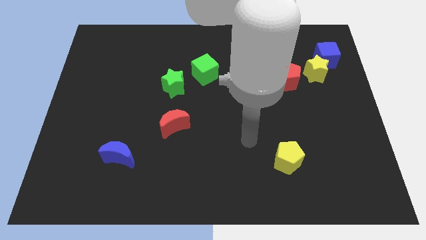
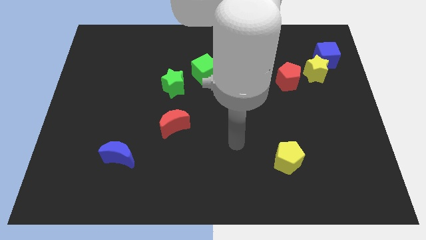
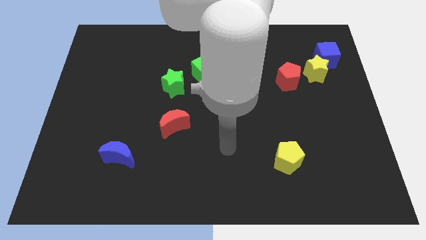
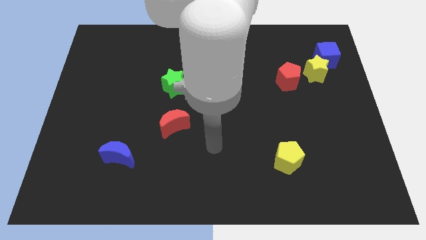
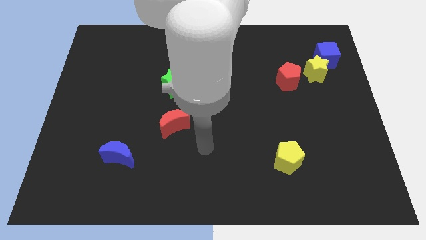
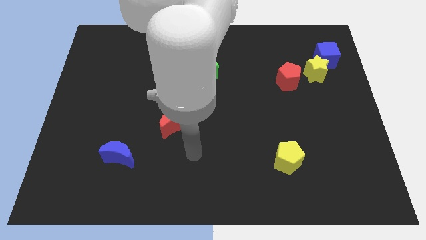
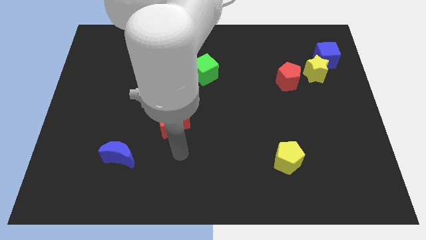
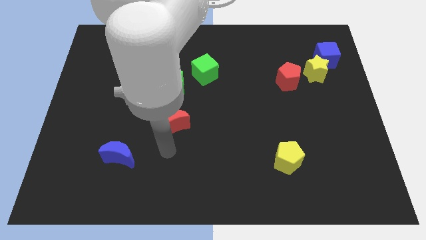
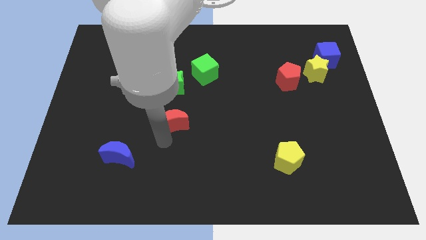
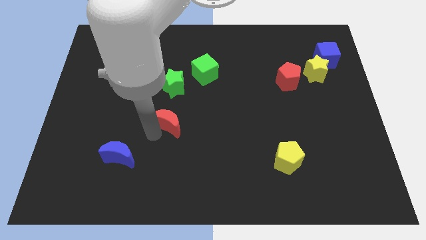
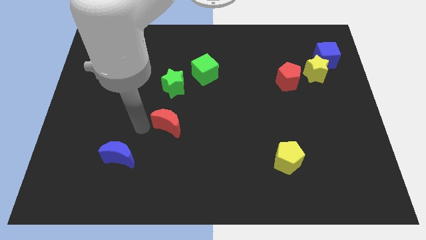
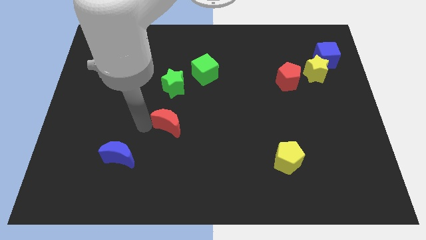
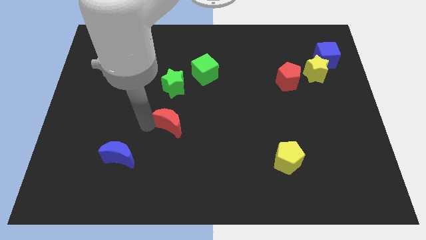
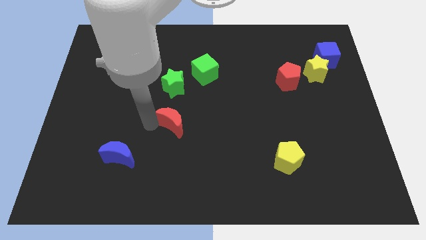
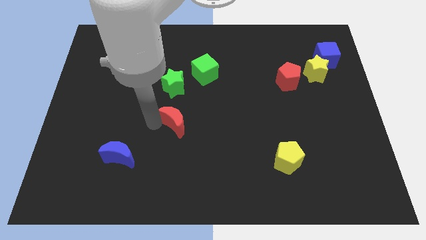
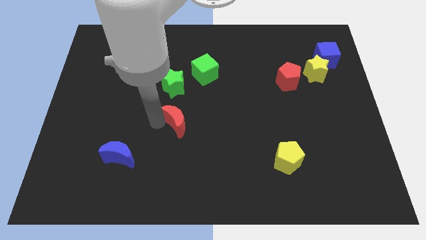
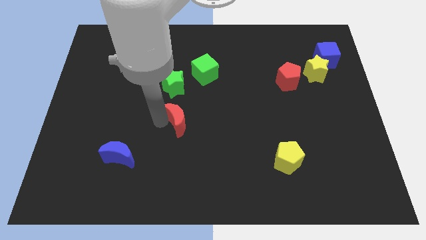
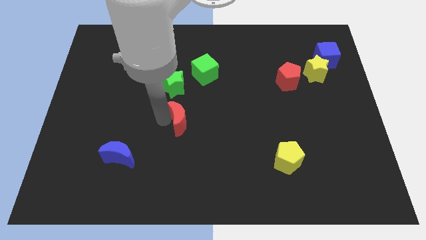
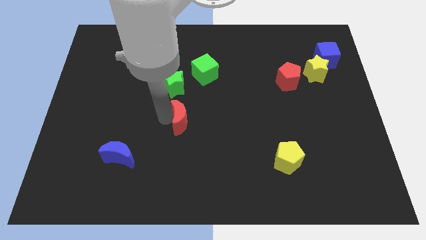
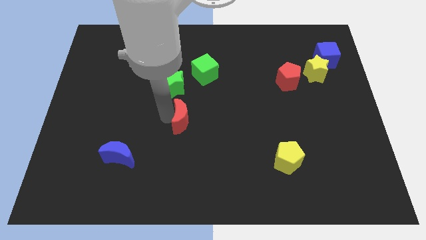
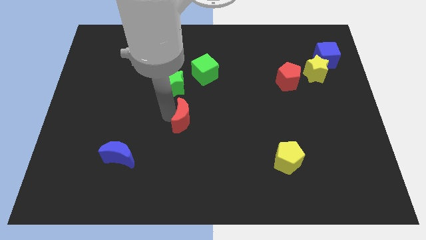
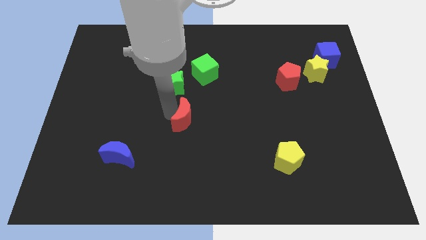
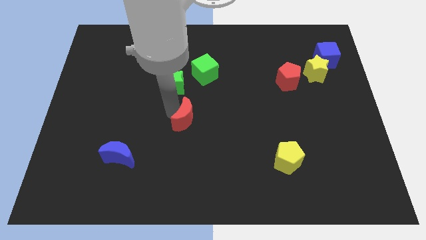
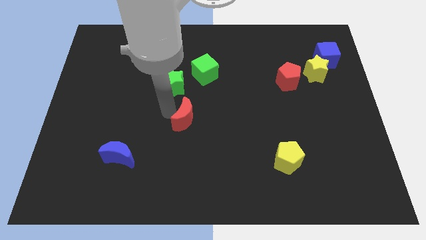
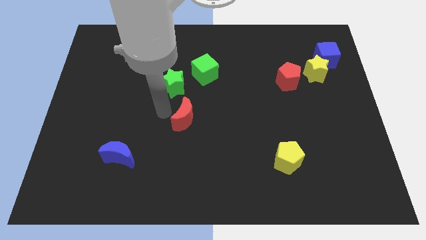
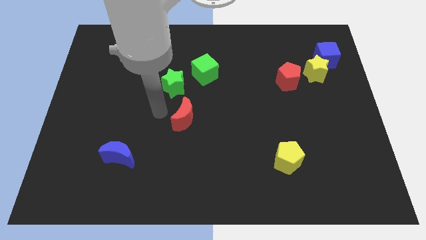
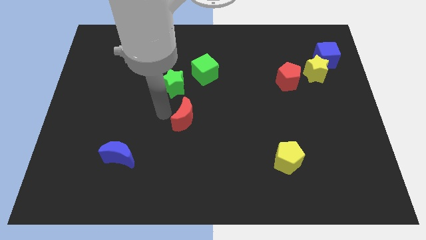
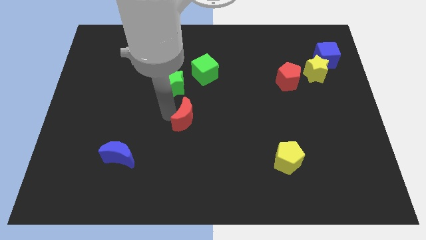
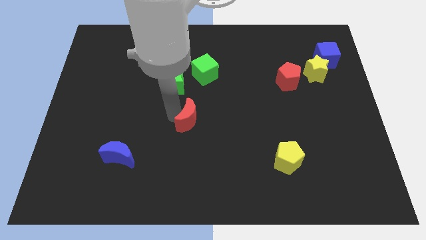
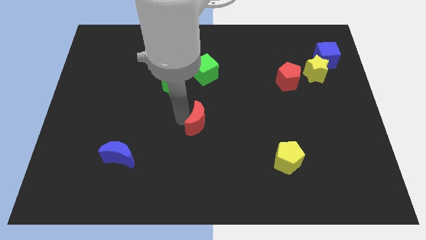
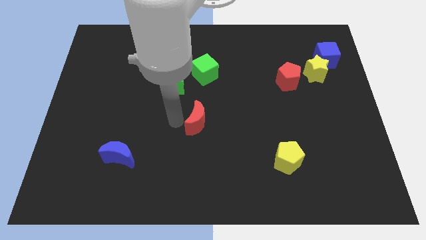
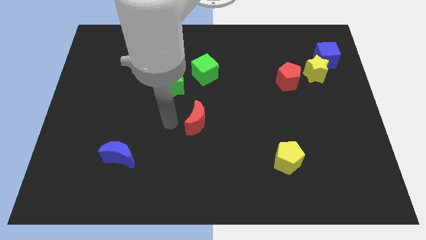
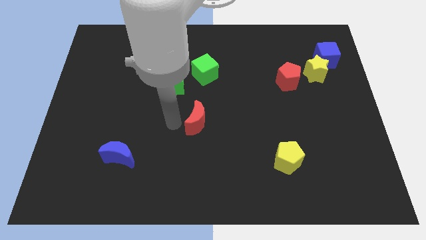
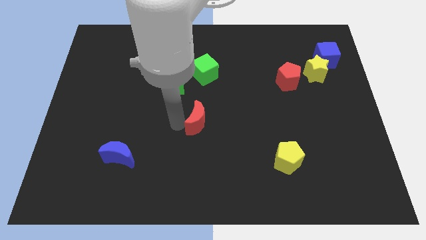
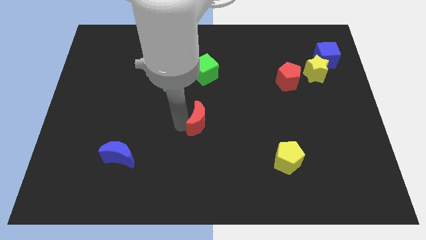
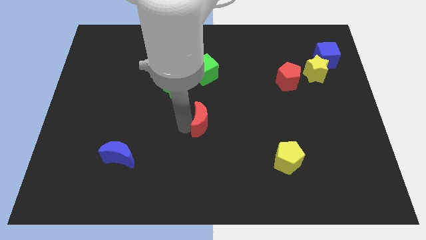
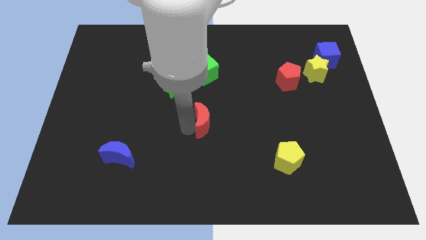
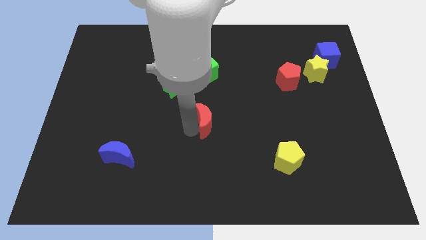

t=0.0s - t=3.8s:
slide the red moon slightly to the right

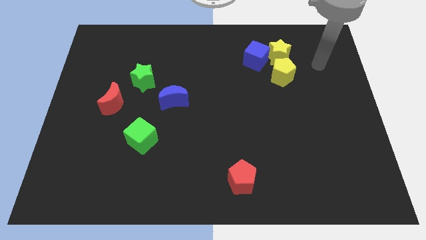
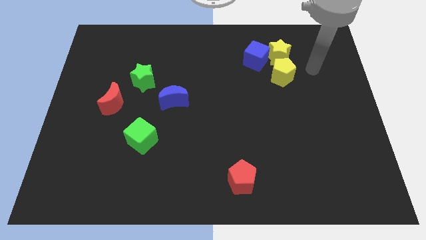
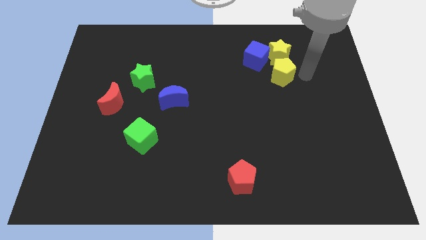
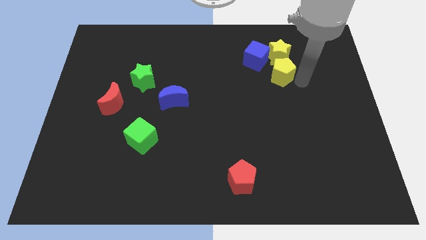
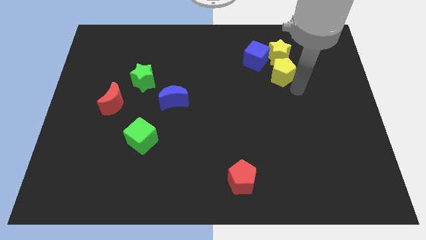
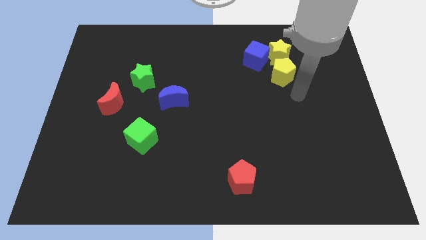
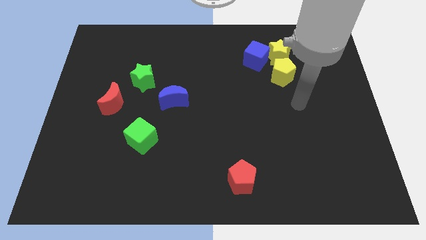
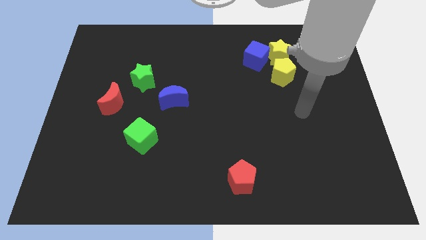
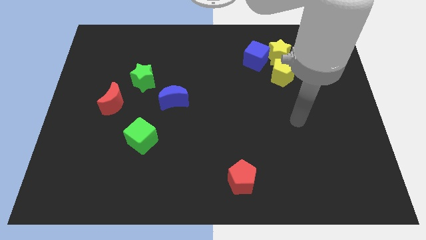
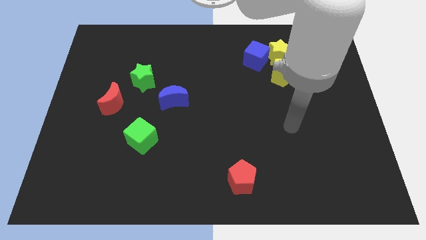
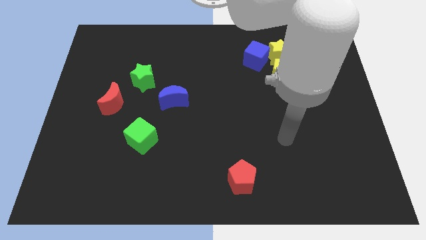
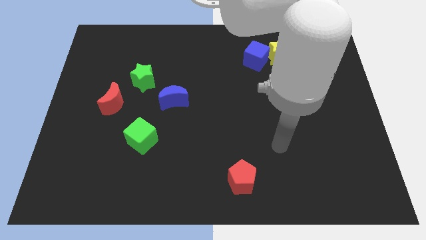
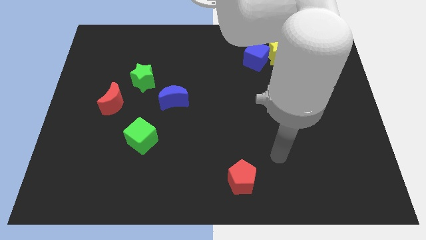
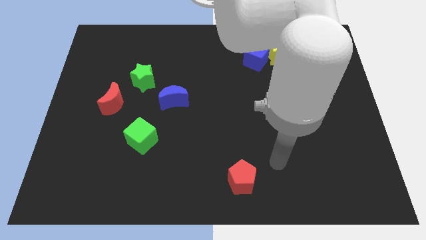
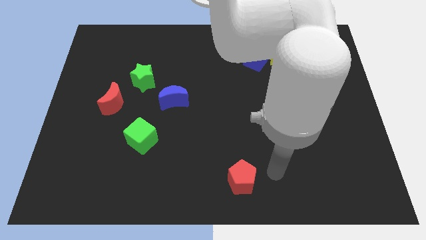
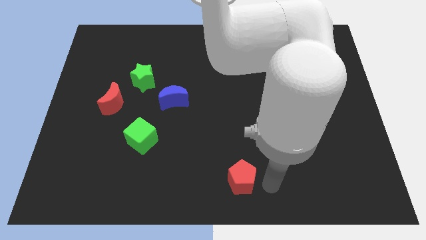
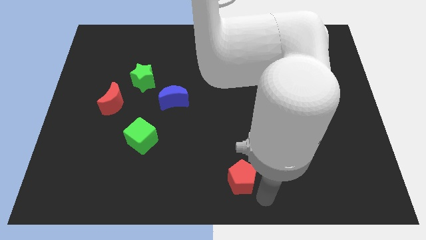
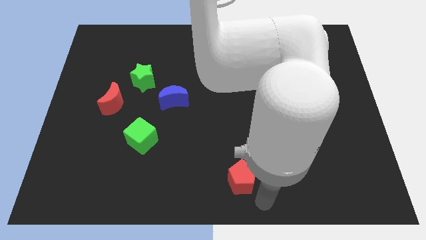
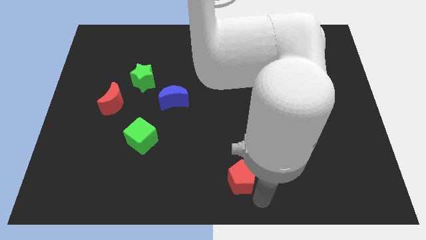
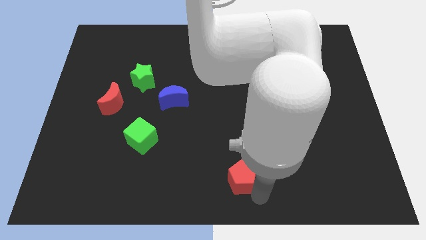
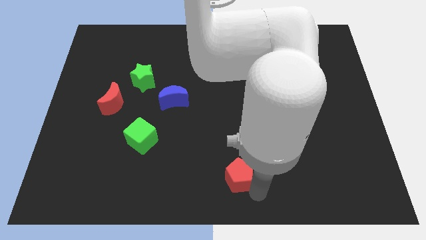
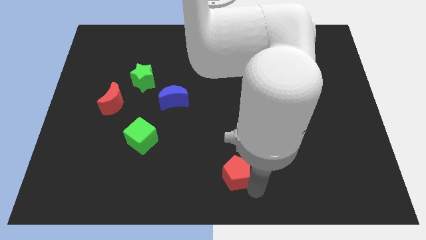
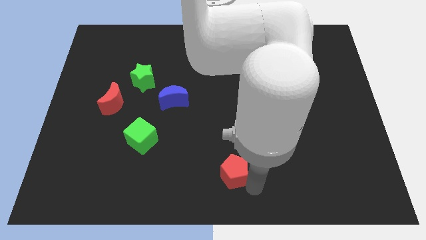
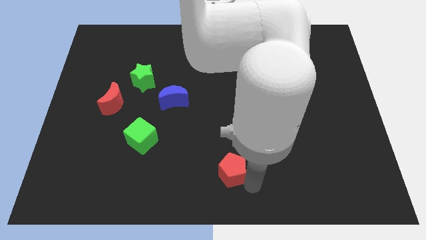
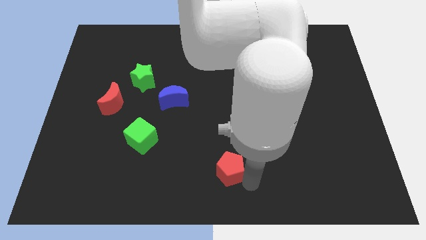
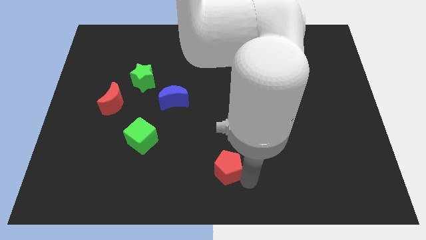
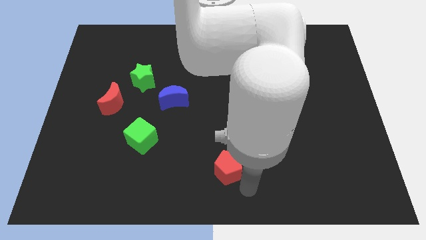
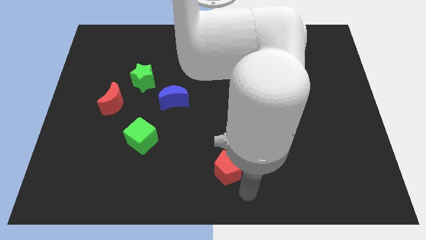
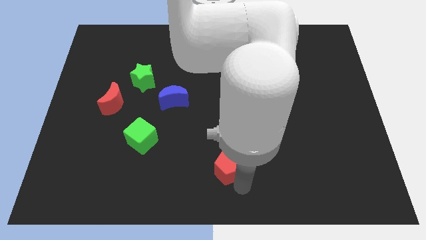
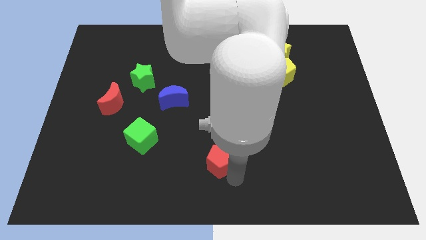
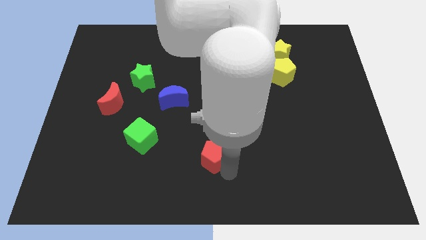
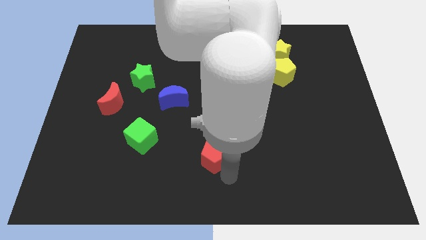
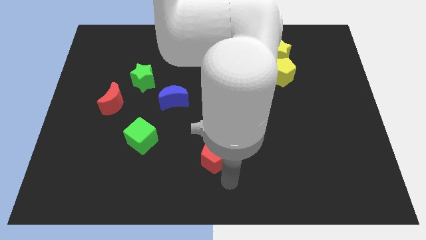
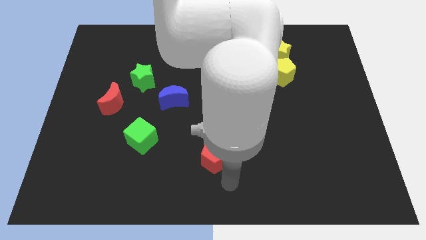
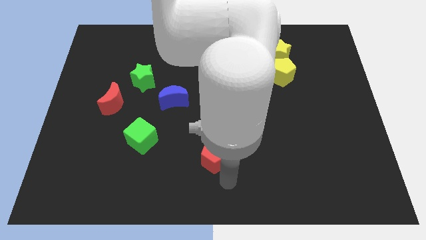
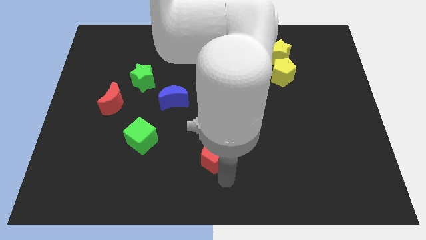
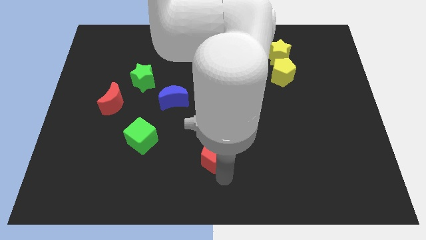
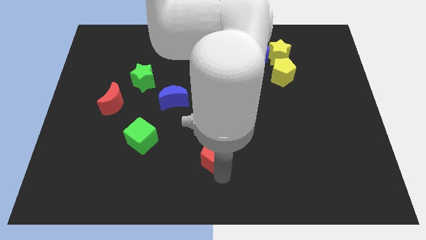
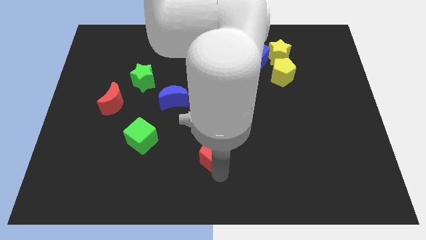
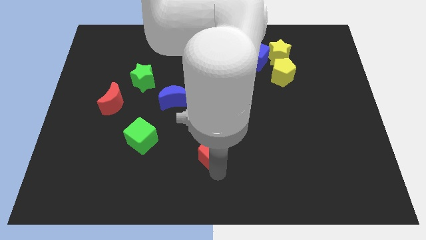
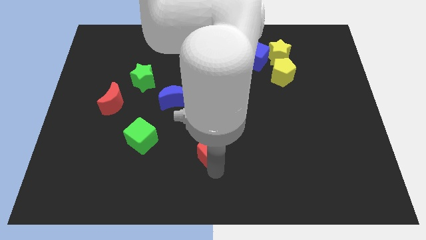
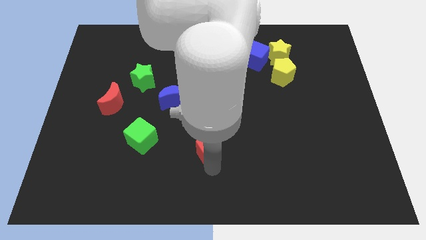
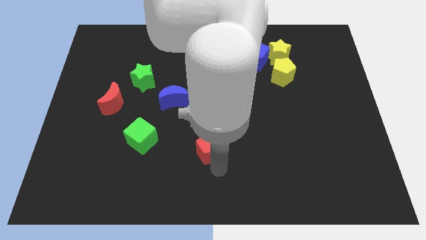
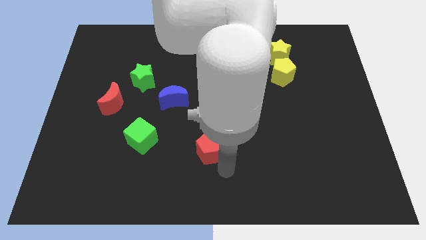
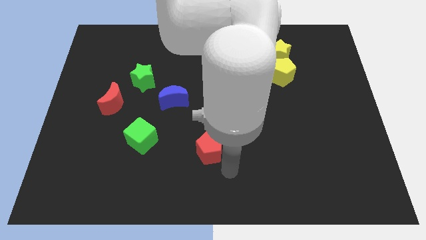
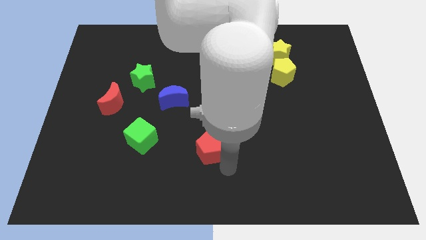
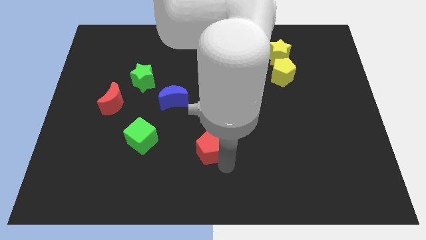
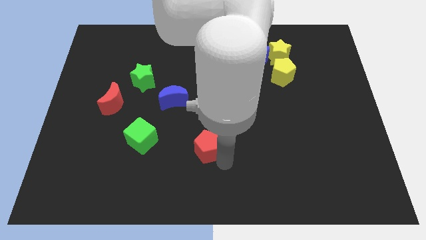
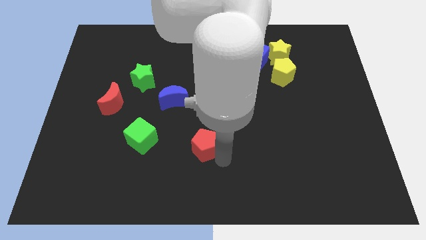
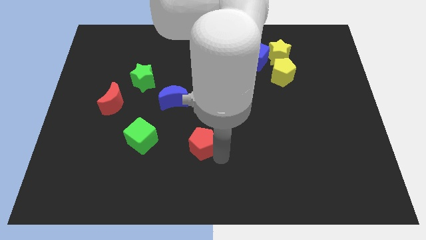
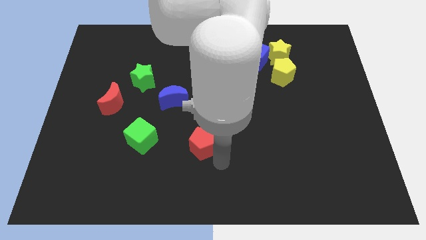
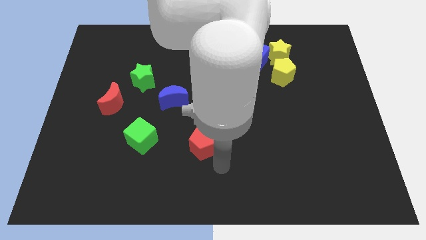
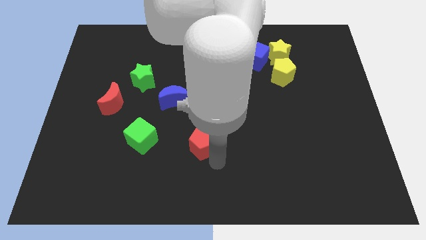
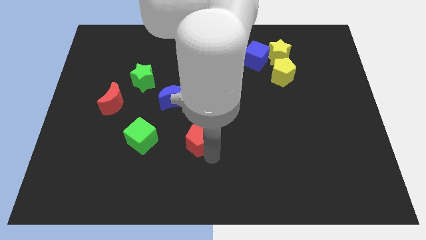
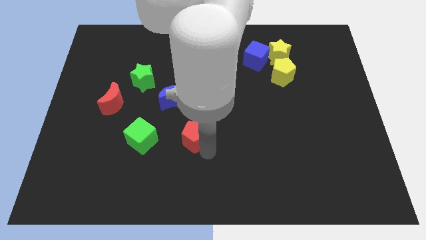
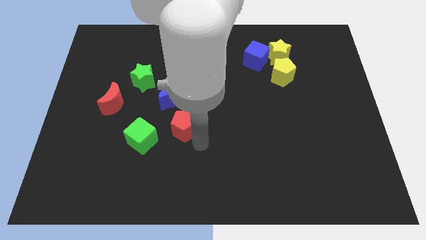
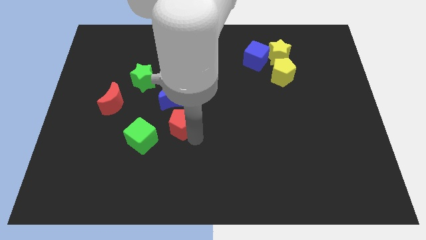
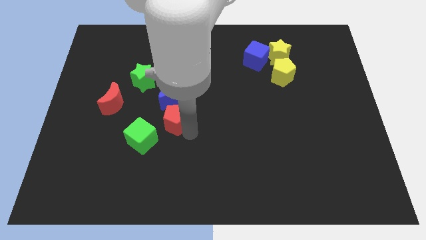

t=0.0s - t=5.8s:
move the red pentagon up and left
